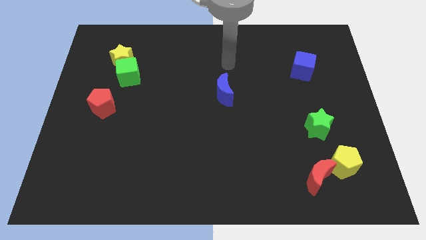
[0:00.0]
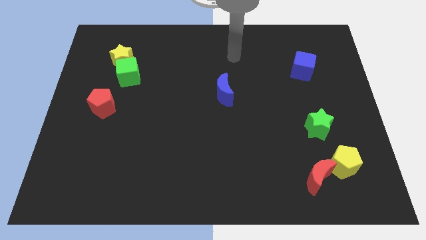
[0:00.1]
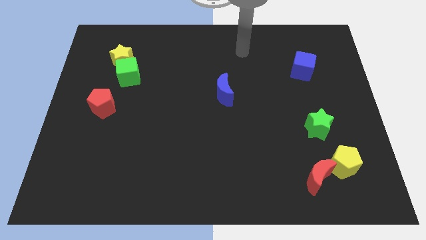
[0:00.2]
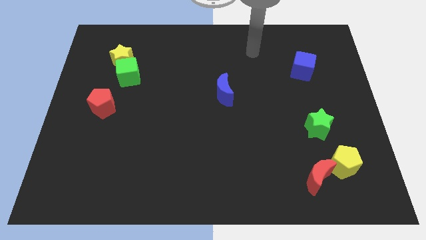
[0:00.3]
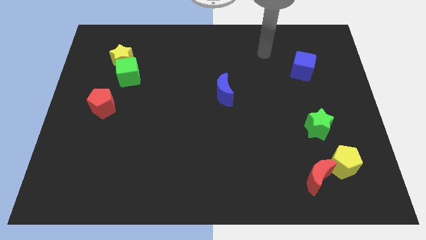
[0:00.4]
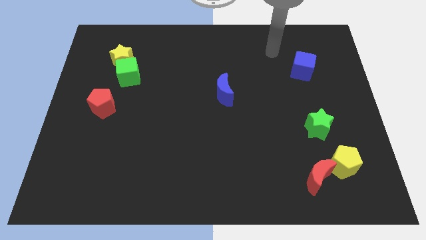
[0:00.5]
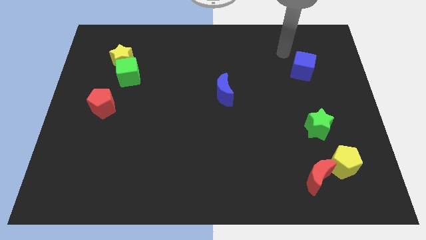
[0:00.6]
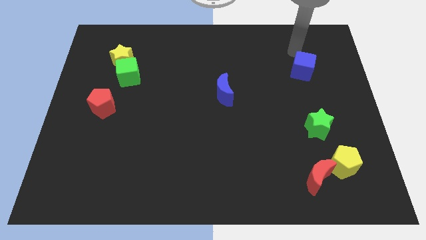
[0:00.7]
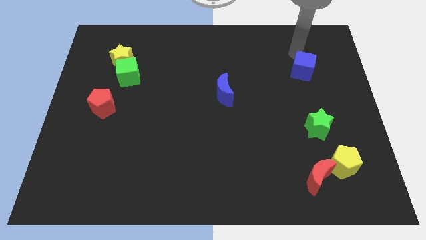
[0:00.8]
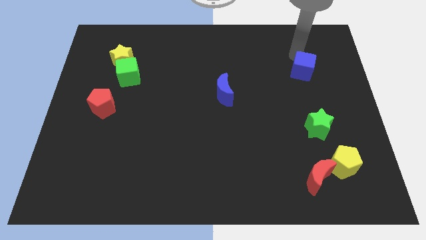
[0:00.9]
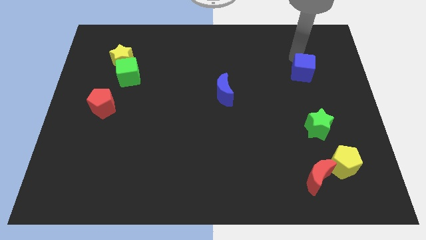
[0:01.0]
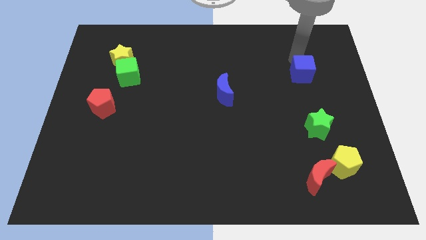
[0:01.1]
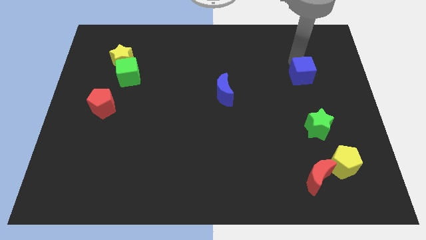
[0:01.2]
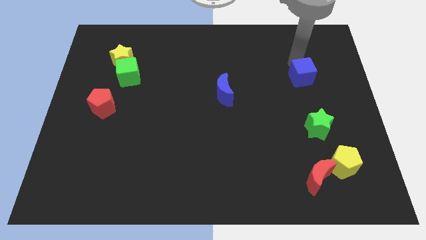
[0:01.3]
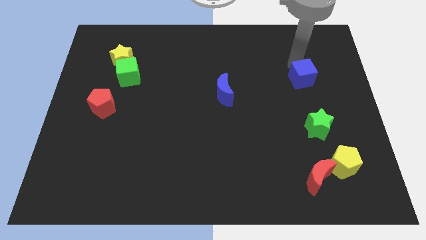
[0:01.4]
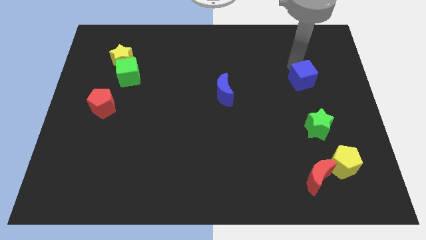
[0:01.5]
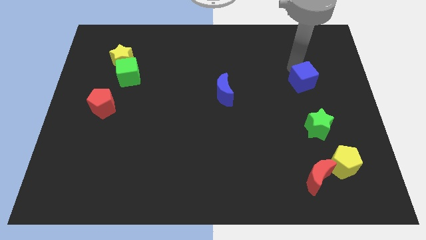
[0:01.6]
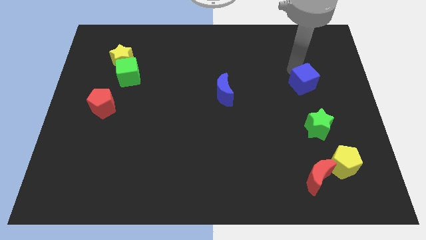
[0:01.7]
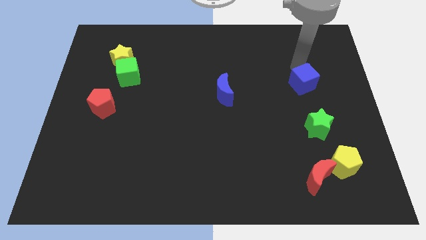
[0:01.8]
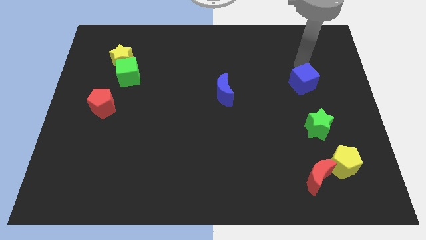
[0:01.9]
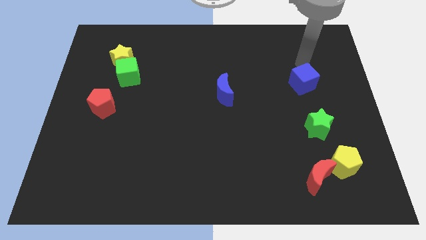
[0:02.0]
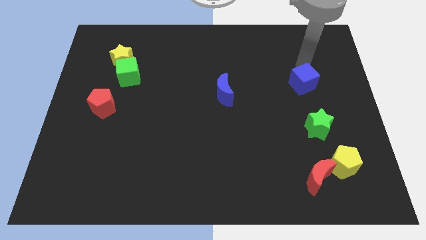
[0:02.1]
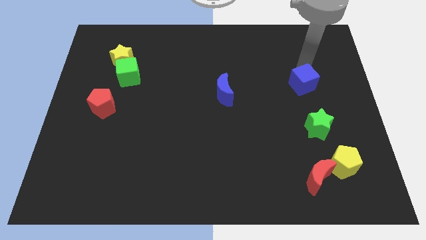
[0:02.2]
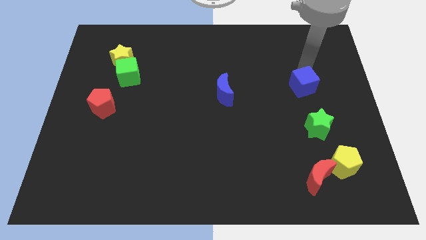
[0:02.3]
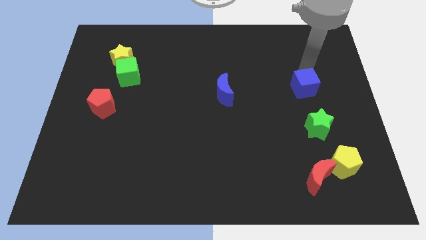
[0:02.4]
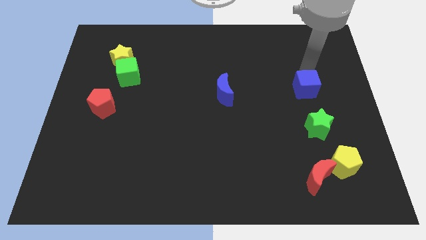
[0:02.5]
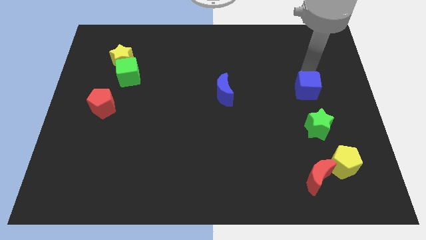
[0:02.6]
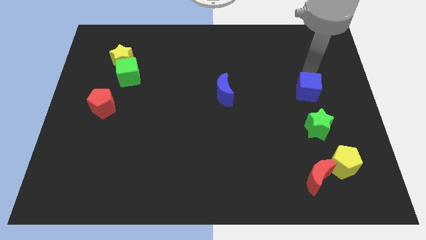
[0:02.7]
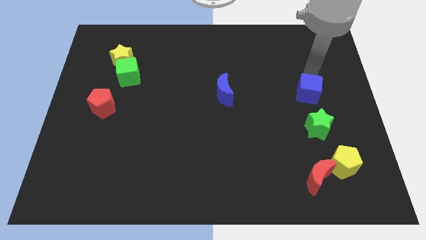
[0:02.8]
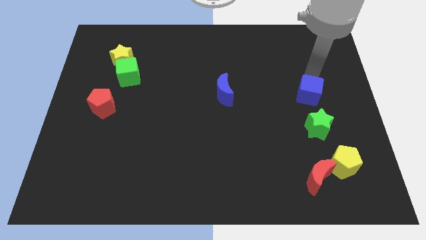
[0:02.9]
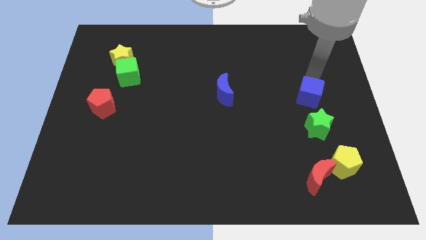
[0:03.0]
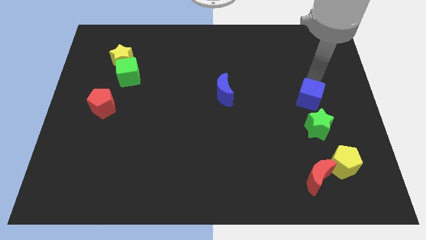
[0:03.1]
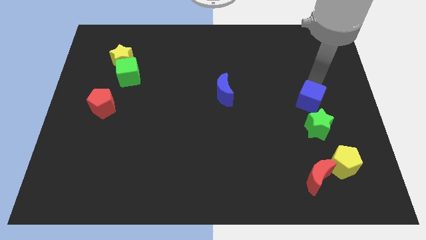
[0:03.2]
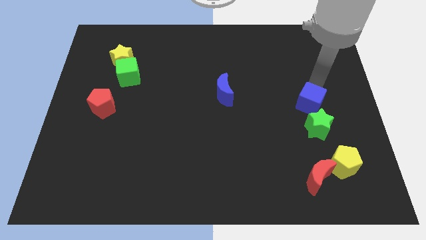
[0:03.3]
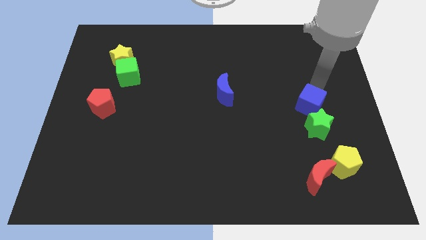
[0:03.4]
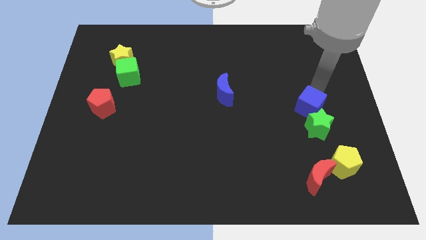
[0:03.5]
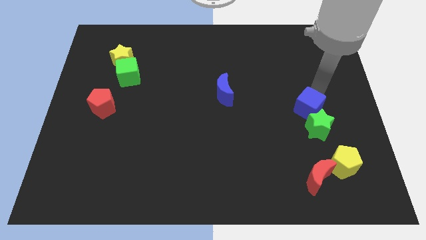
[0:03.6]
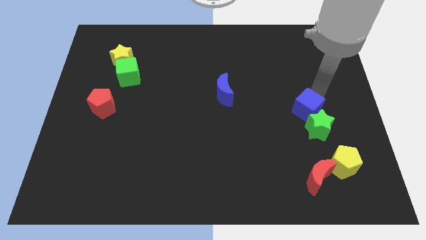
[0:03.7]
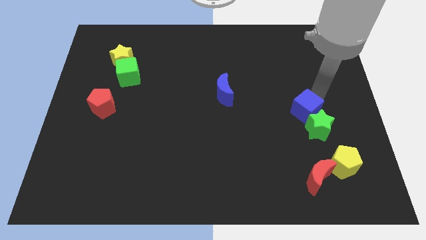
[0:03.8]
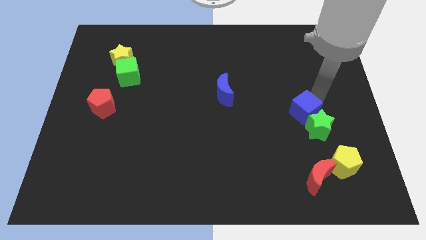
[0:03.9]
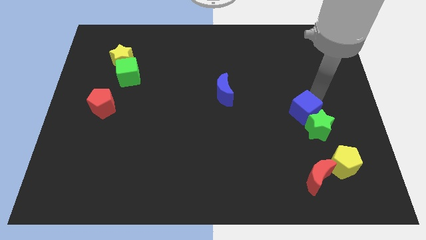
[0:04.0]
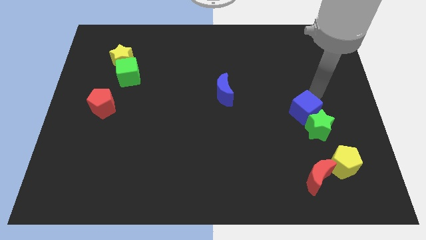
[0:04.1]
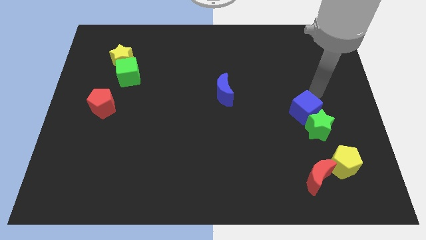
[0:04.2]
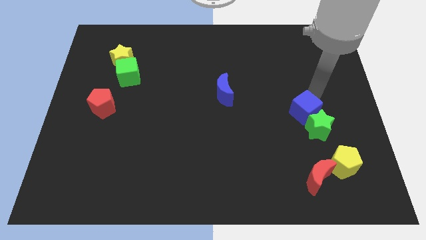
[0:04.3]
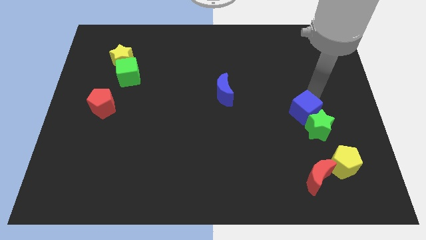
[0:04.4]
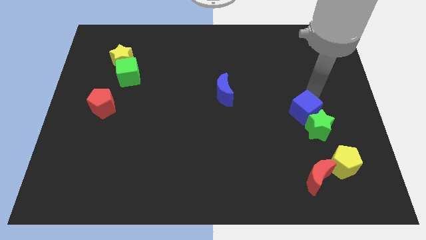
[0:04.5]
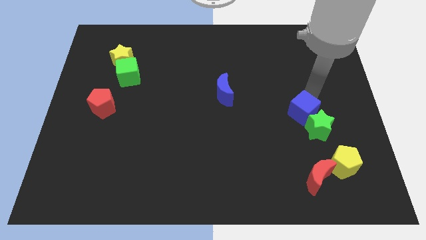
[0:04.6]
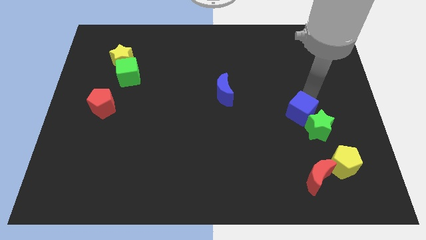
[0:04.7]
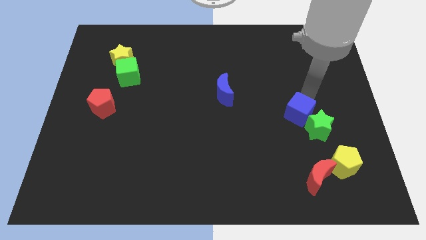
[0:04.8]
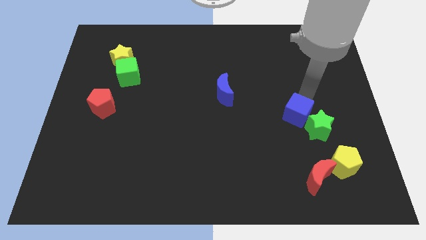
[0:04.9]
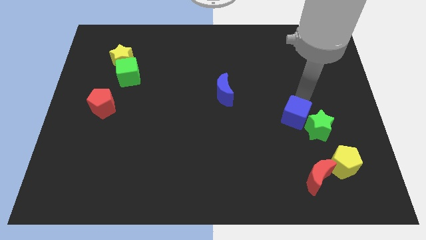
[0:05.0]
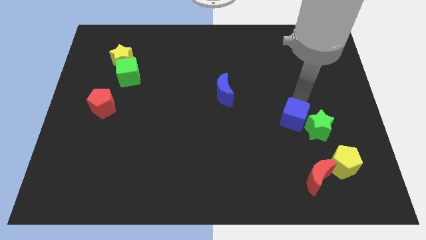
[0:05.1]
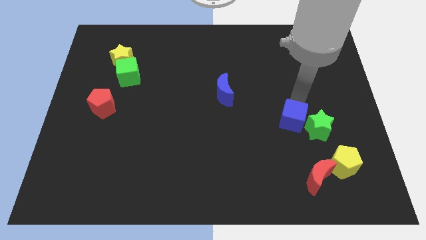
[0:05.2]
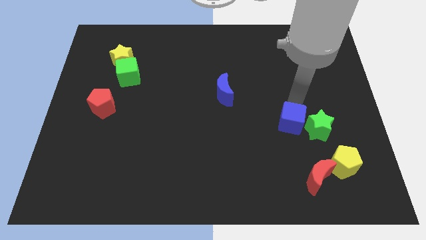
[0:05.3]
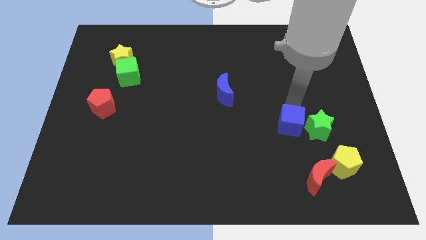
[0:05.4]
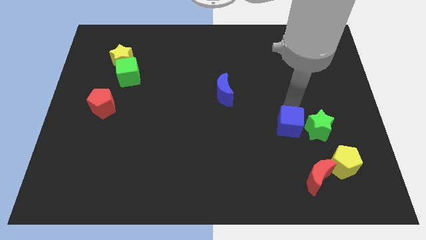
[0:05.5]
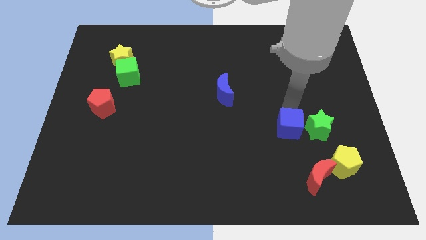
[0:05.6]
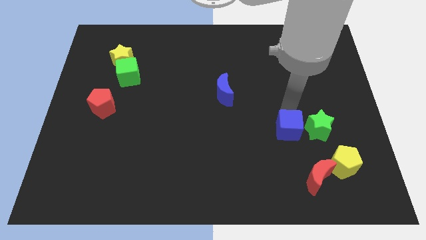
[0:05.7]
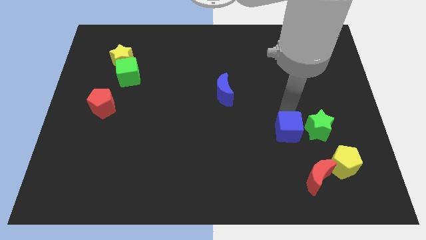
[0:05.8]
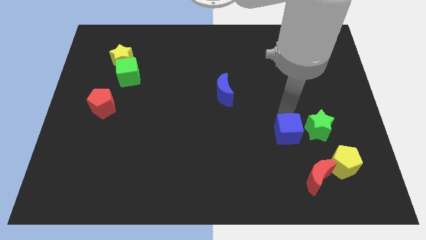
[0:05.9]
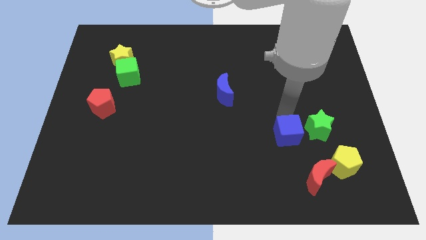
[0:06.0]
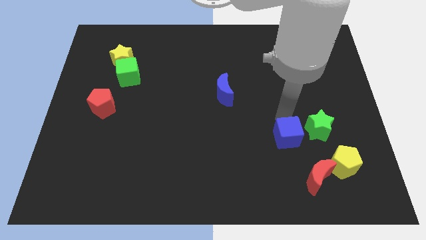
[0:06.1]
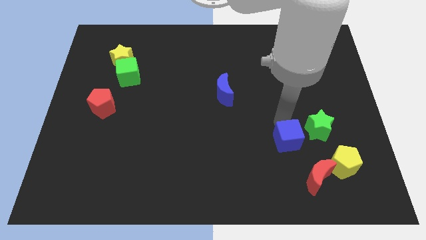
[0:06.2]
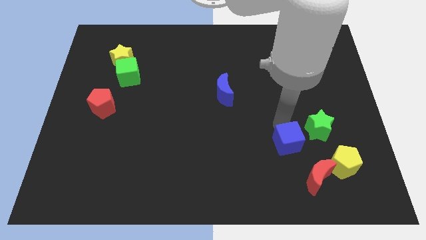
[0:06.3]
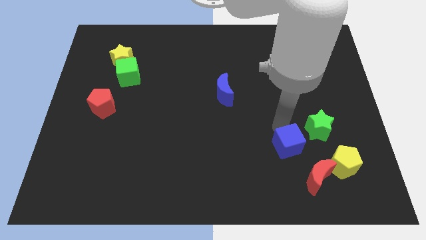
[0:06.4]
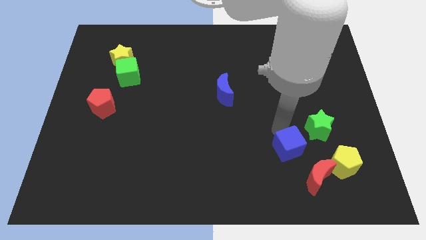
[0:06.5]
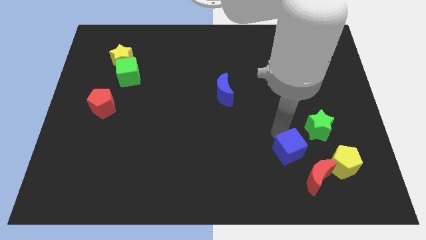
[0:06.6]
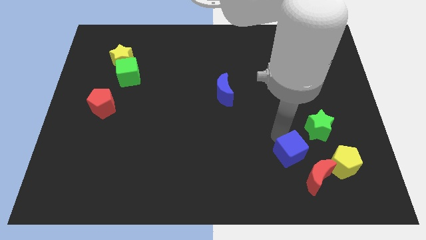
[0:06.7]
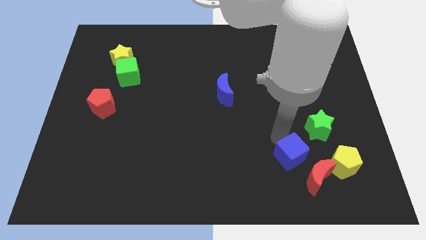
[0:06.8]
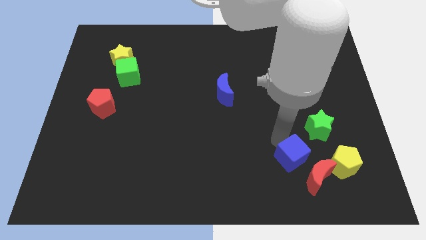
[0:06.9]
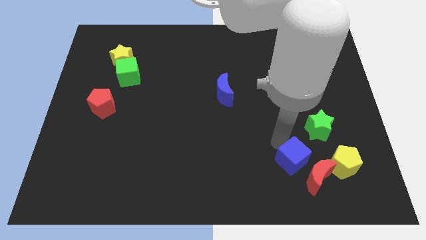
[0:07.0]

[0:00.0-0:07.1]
put the blue cube close to the red moon

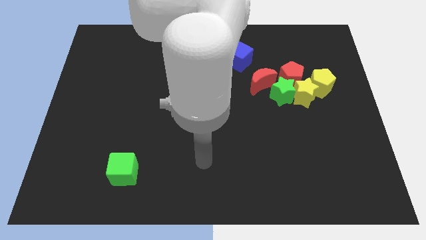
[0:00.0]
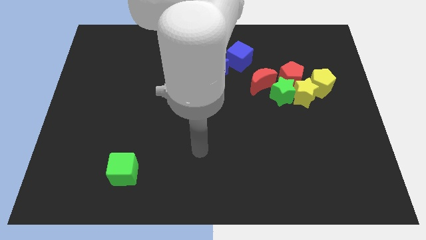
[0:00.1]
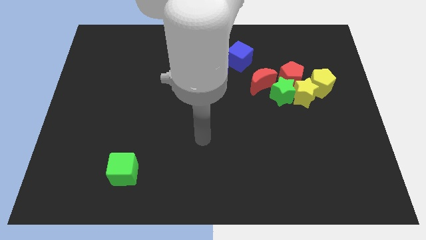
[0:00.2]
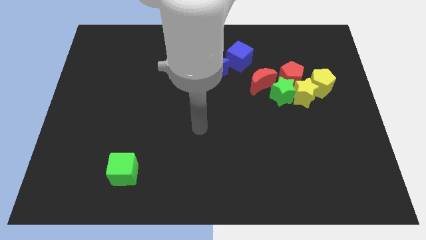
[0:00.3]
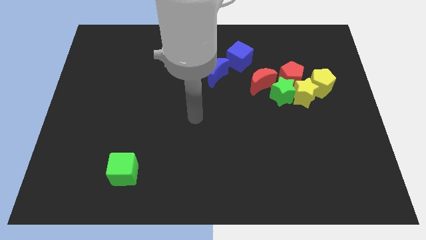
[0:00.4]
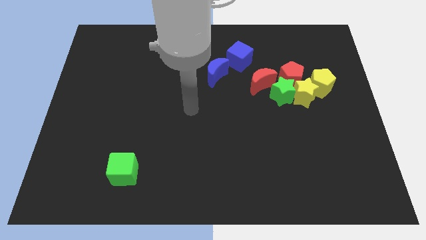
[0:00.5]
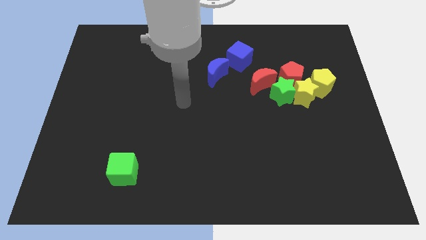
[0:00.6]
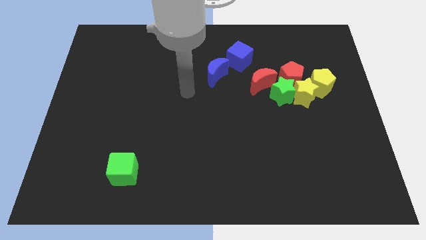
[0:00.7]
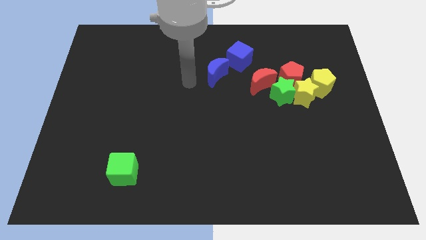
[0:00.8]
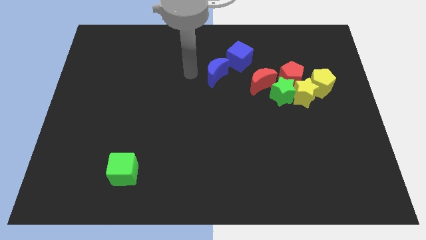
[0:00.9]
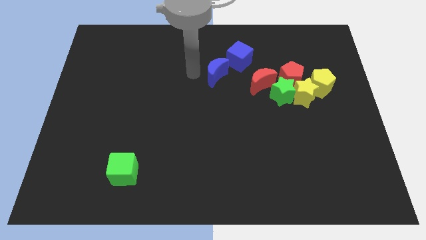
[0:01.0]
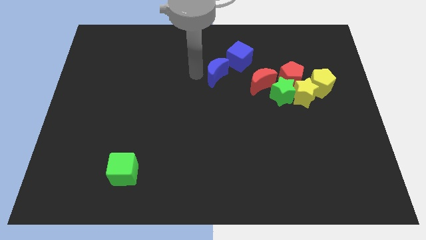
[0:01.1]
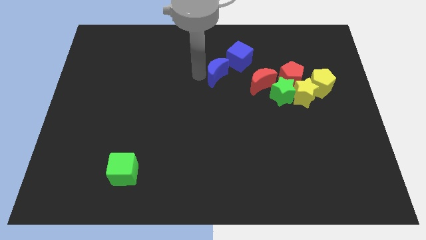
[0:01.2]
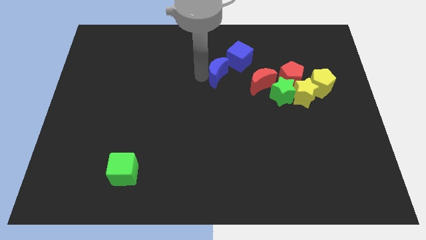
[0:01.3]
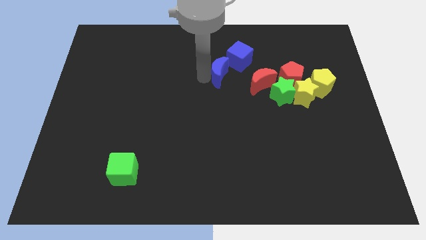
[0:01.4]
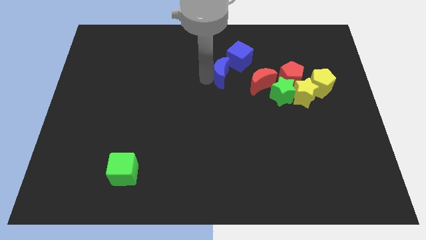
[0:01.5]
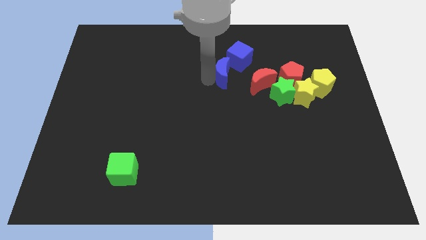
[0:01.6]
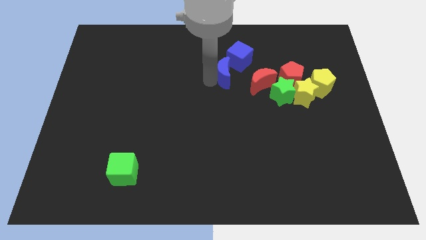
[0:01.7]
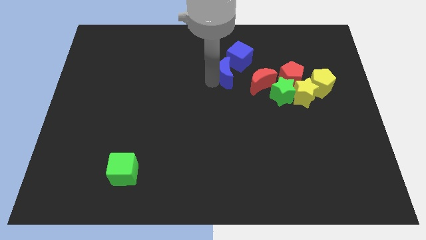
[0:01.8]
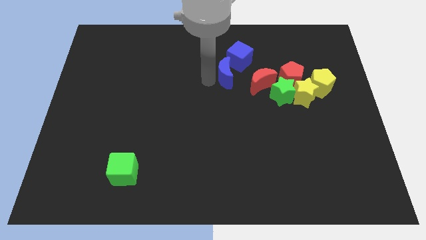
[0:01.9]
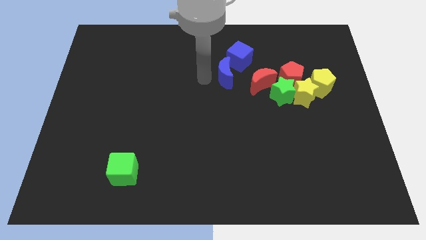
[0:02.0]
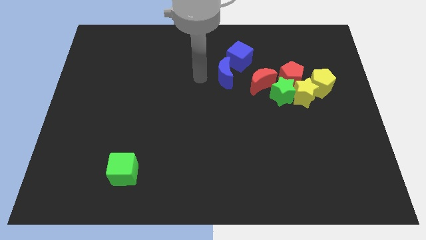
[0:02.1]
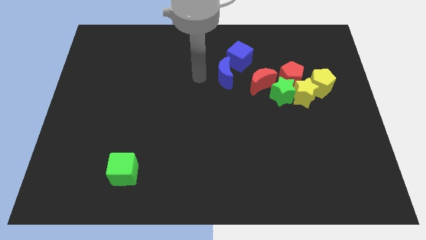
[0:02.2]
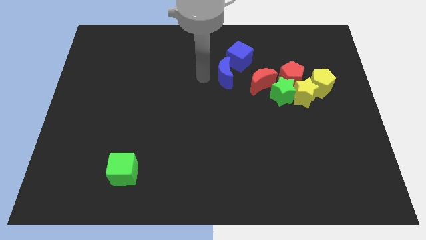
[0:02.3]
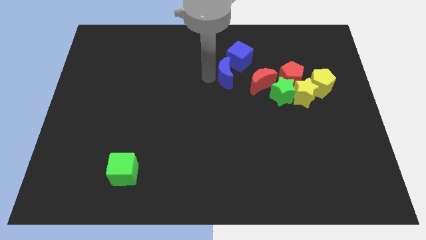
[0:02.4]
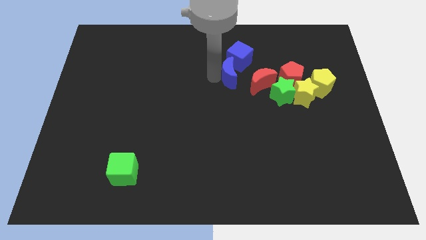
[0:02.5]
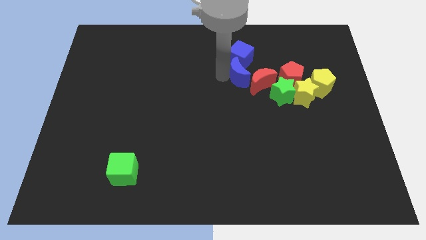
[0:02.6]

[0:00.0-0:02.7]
slide the blue moon next to the red moon
